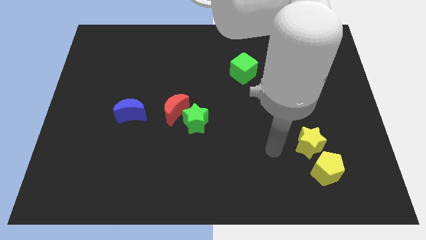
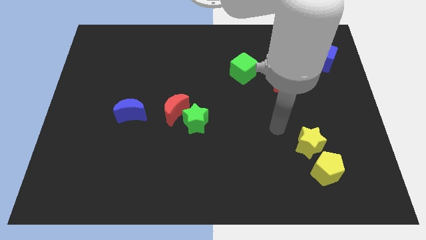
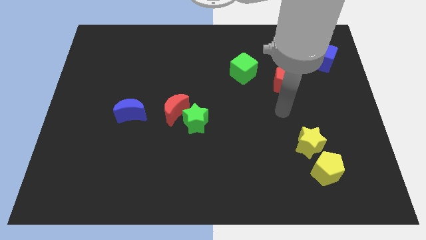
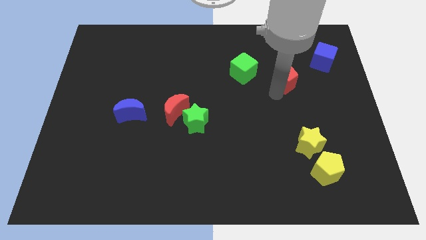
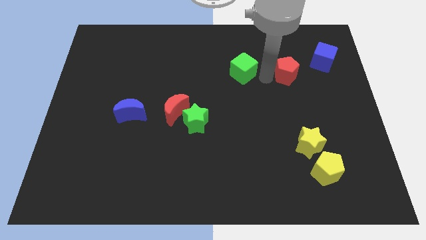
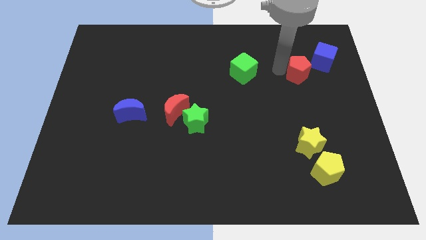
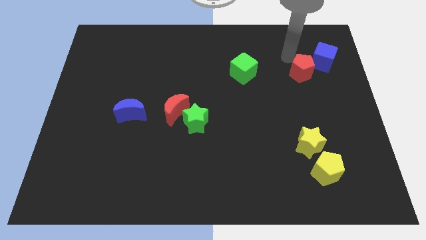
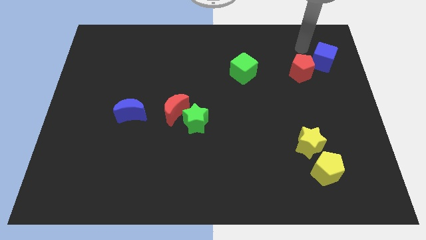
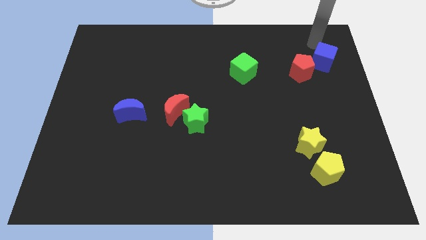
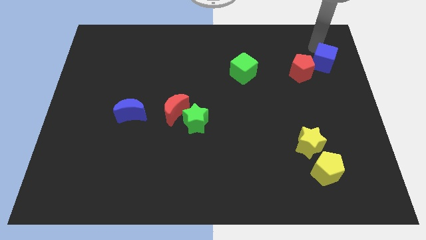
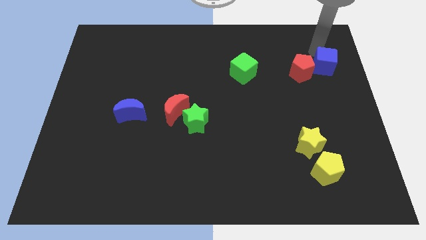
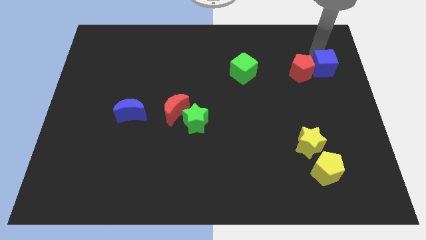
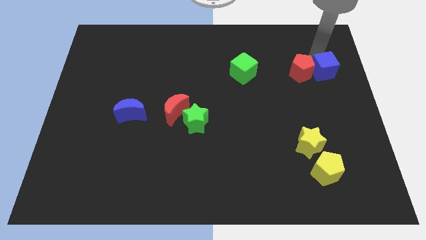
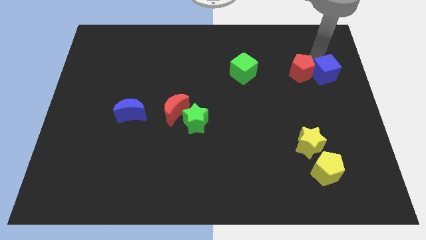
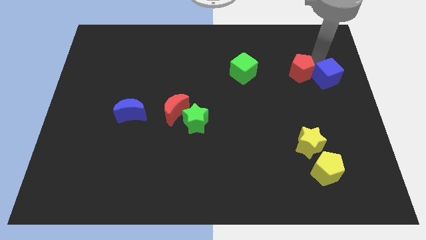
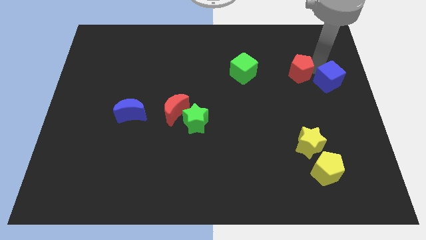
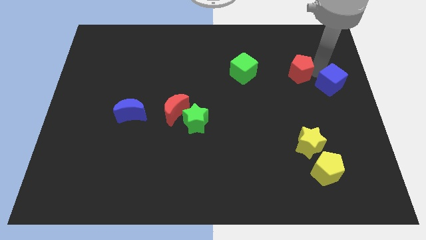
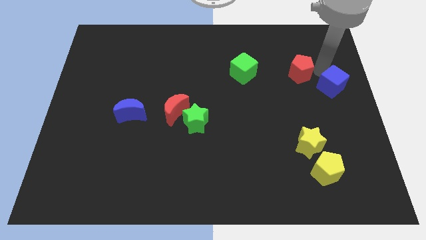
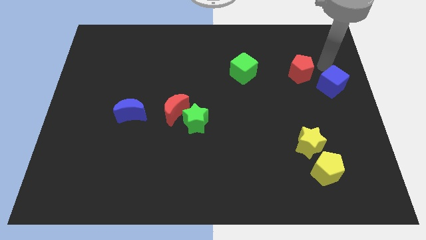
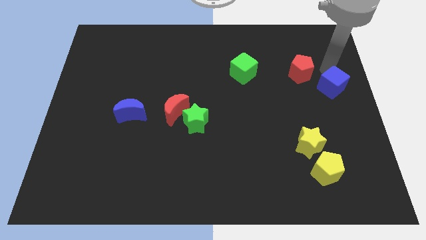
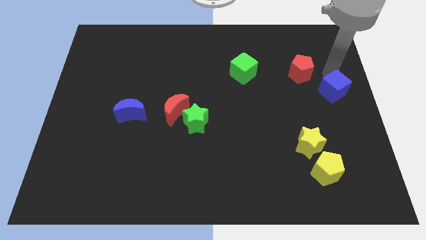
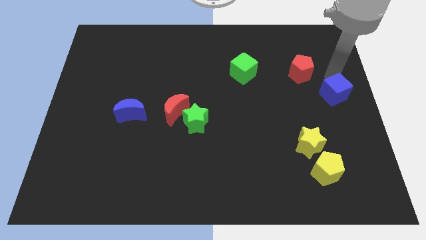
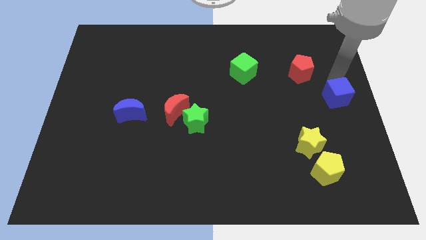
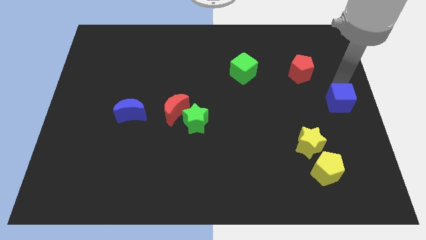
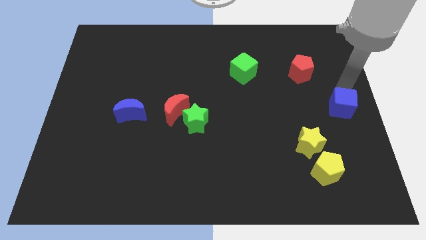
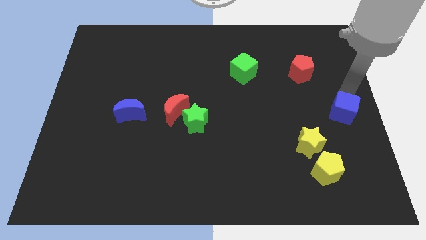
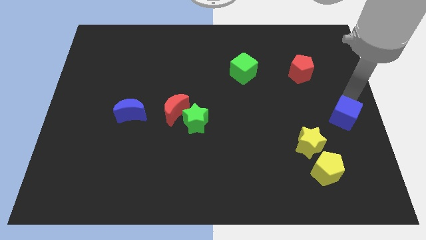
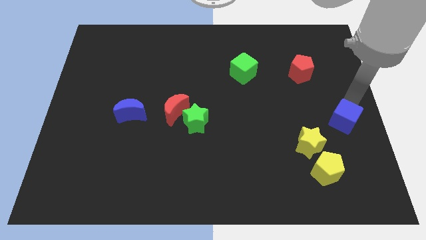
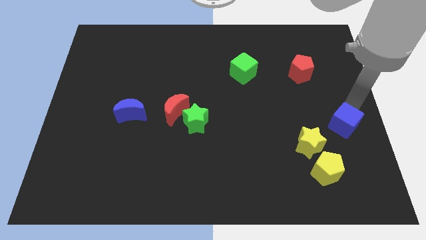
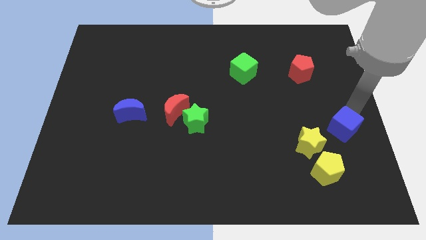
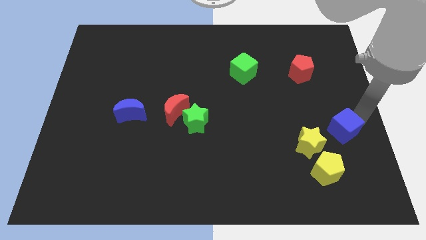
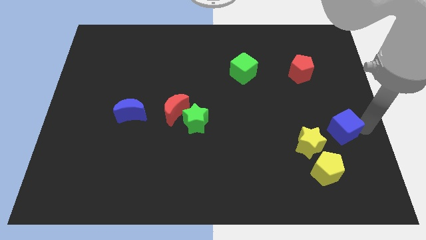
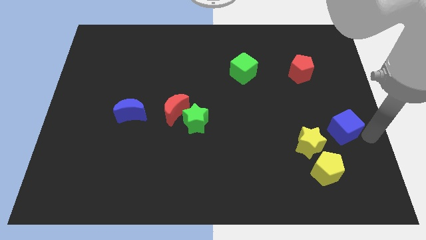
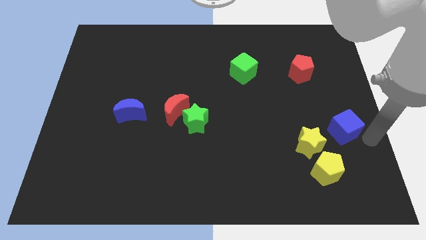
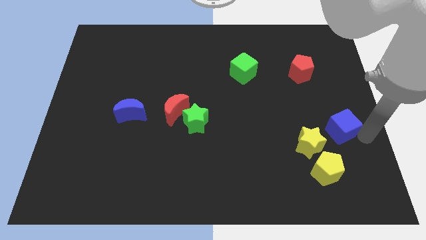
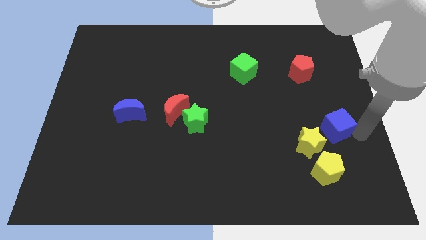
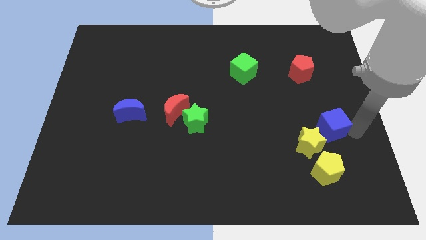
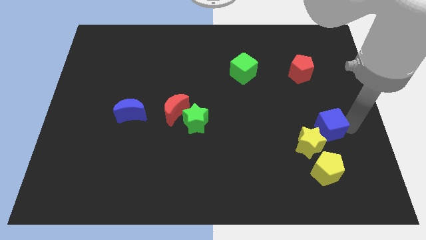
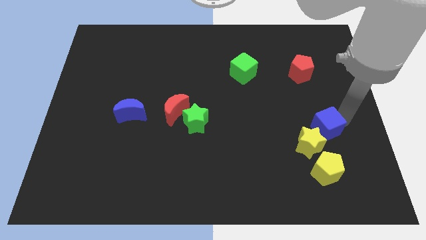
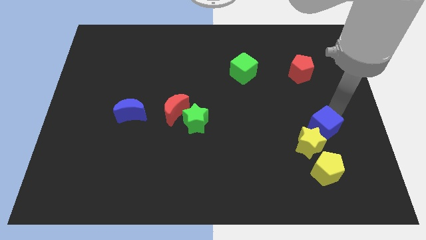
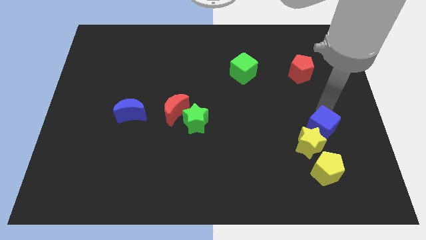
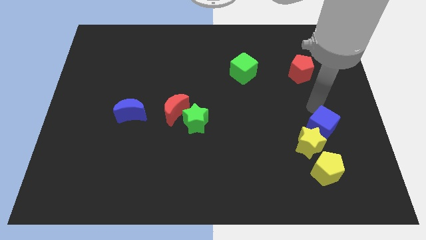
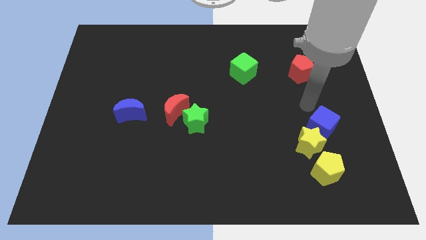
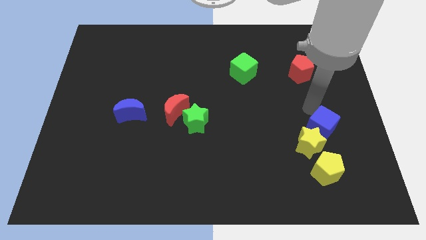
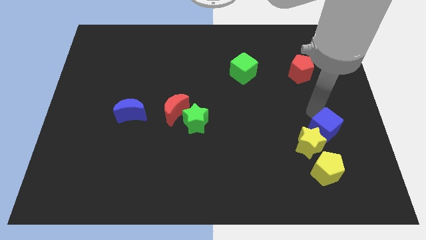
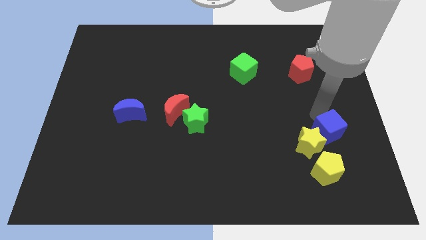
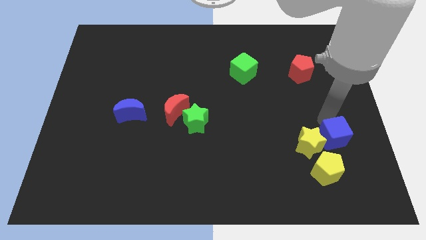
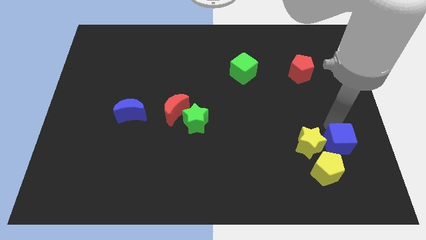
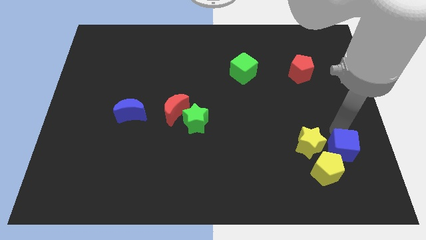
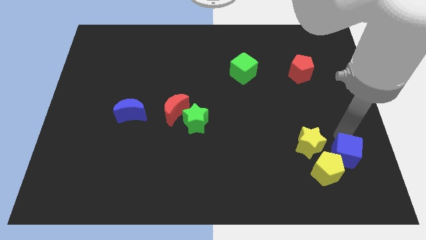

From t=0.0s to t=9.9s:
push the blue cube close to the yellow pentagon

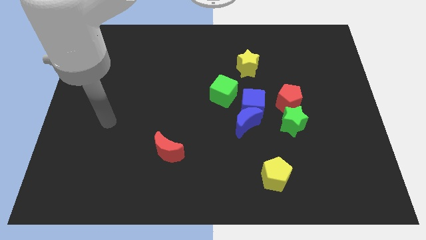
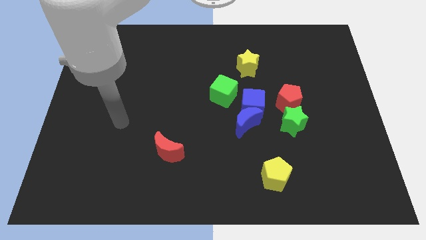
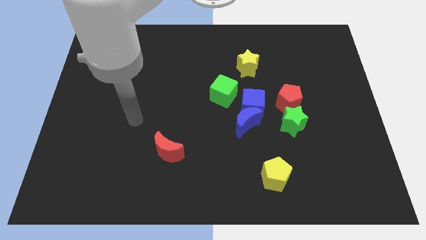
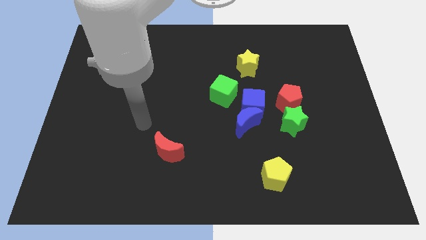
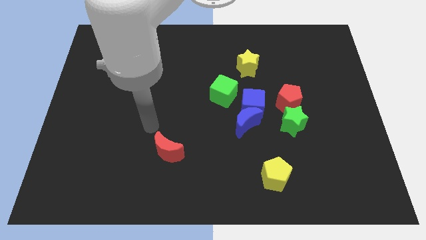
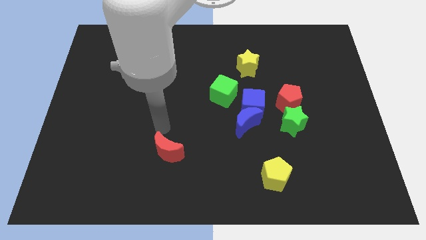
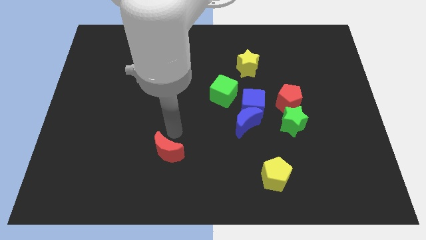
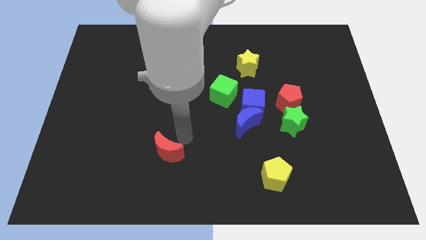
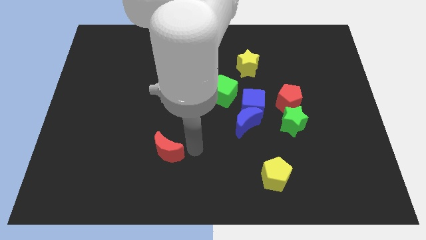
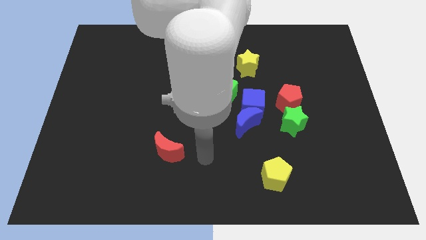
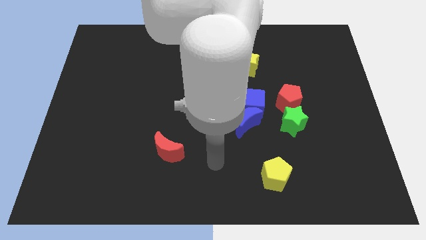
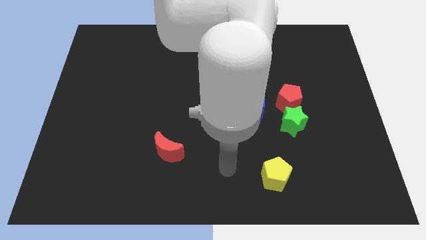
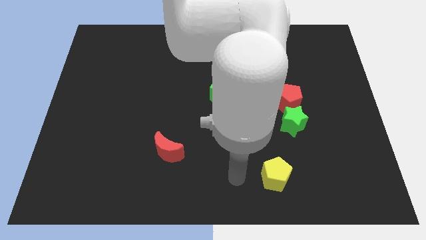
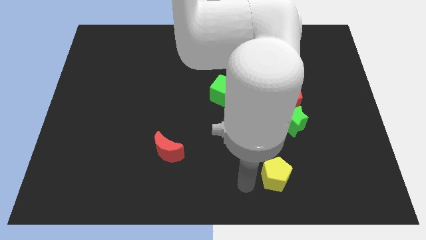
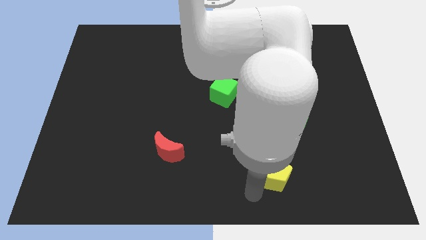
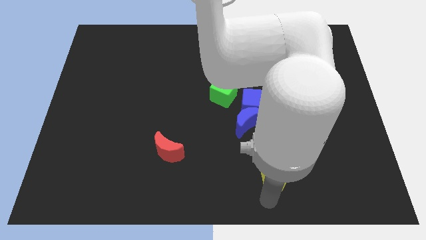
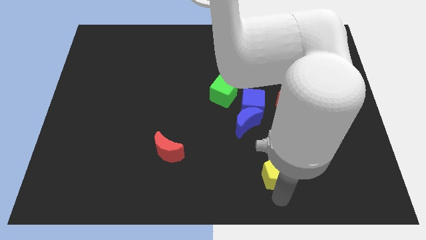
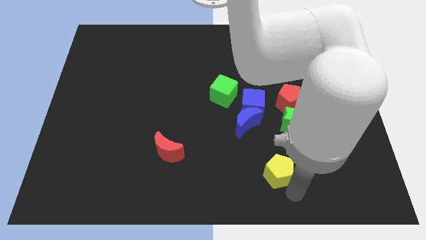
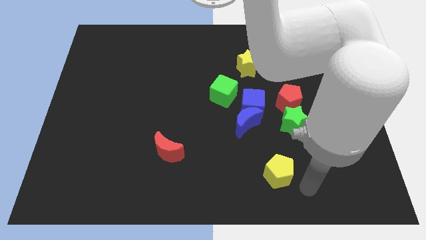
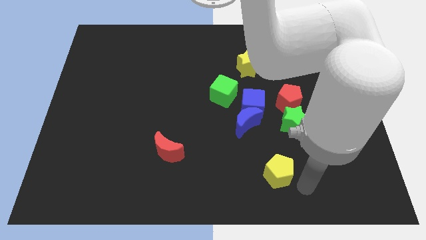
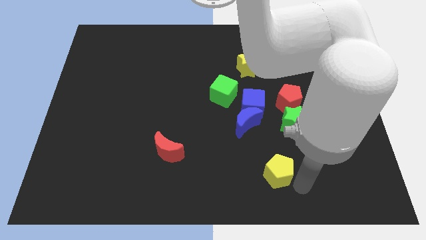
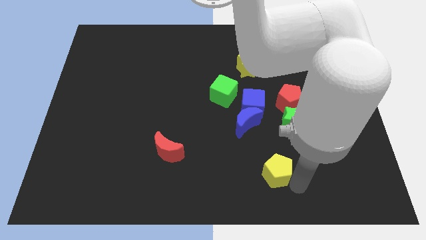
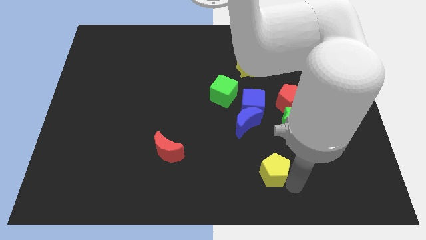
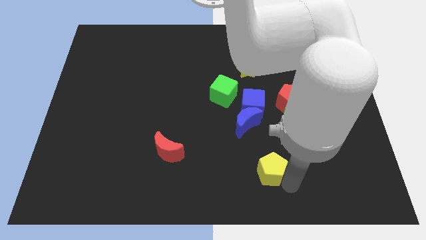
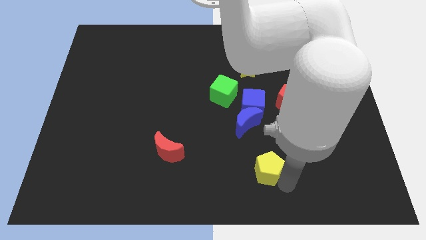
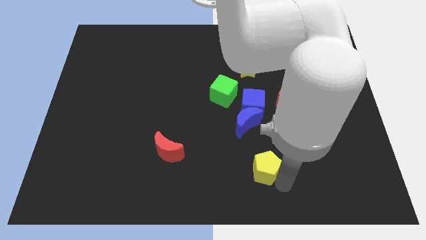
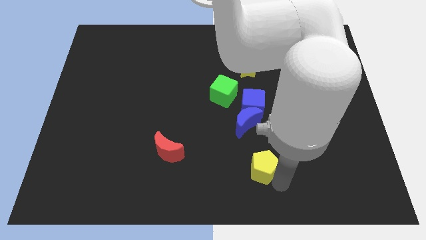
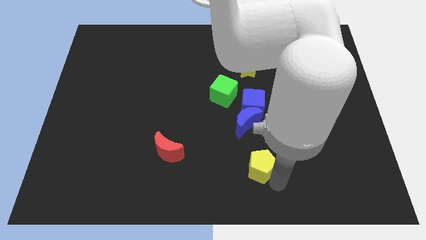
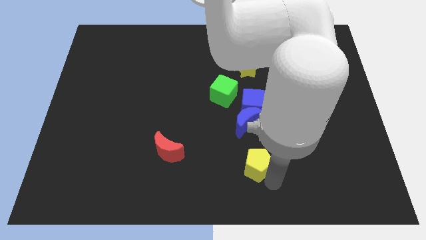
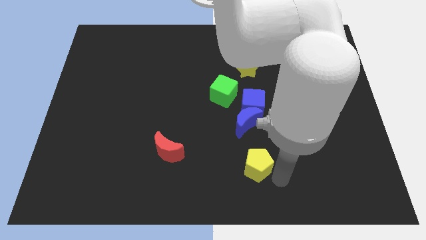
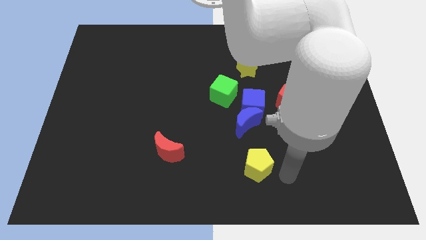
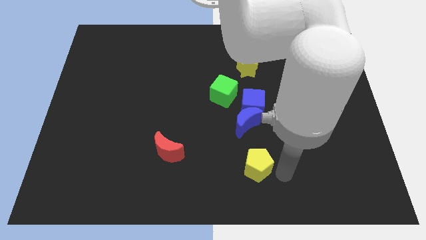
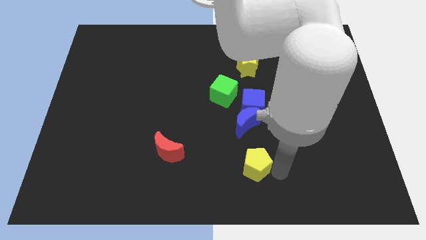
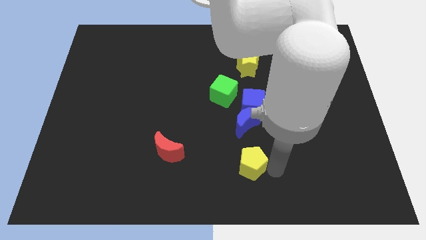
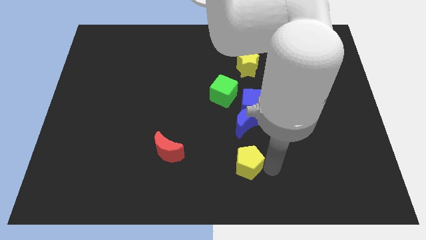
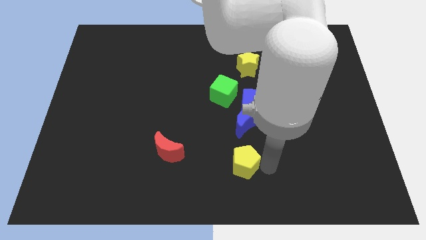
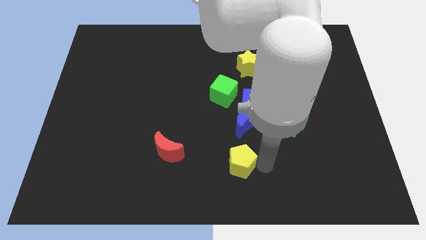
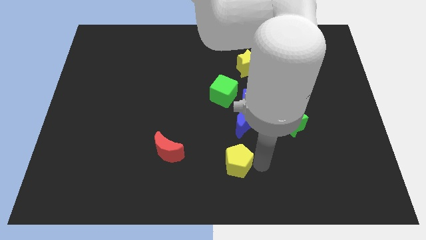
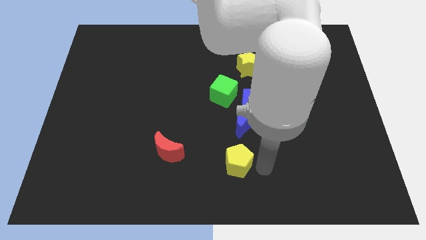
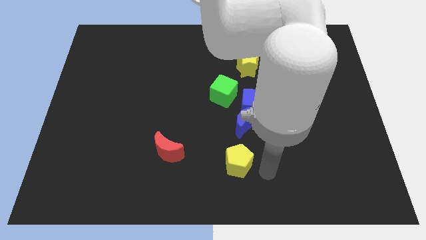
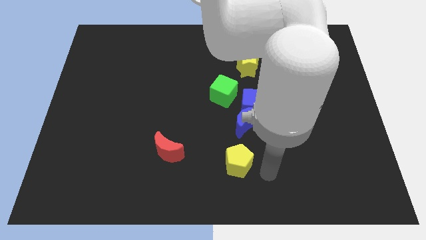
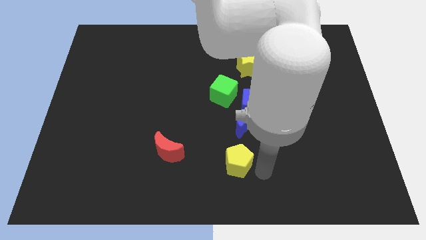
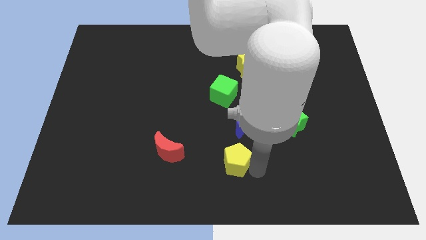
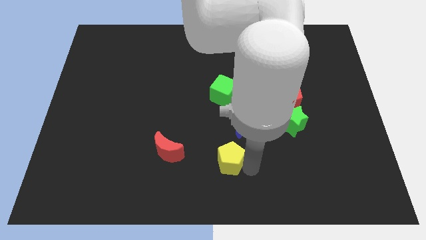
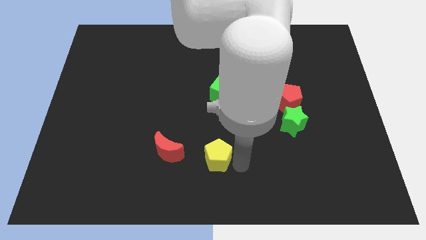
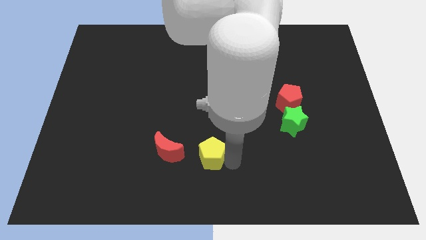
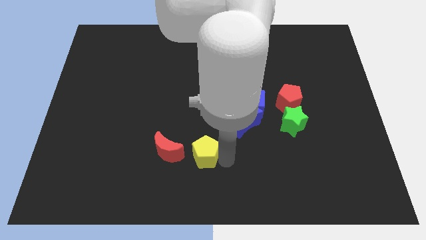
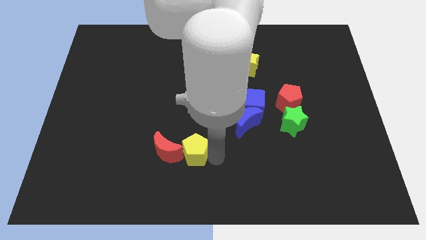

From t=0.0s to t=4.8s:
slide the yellow pentagon close to the red moon
